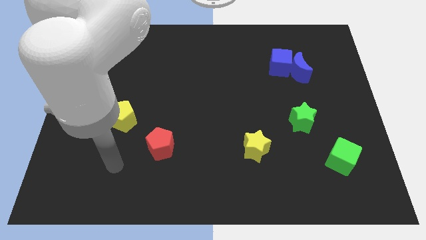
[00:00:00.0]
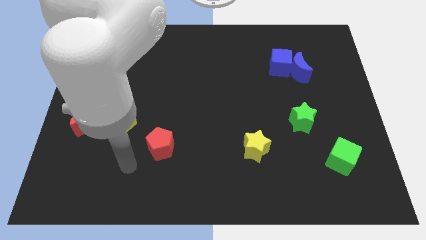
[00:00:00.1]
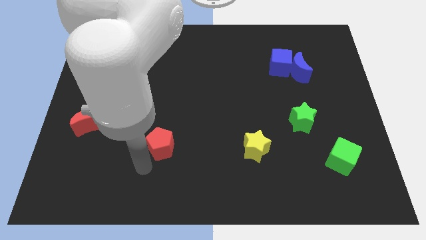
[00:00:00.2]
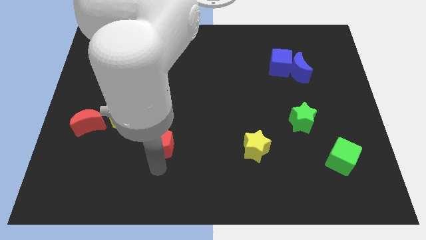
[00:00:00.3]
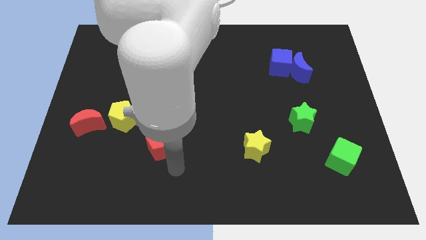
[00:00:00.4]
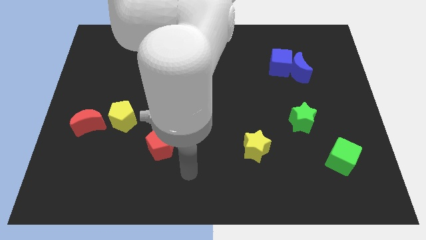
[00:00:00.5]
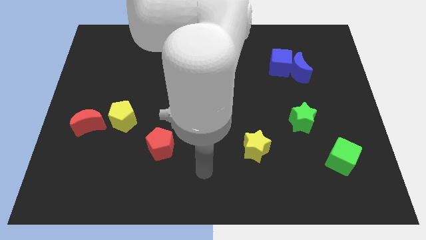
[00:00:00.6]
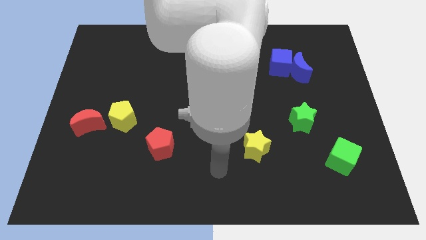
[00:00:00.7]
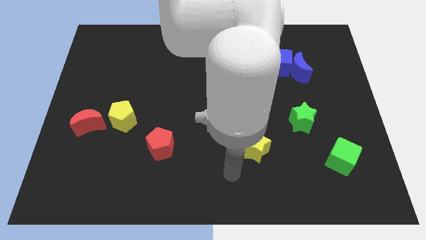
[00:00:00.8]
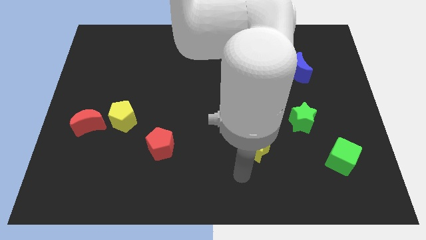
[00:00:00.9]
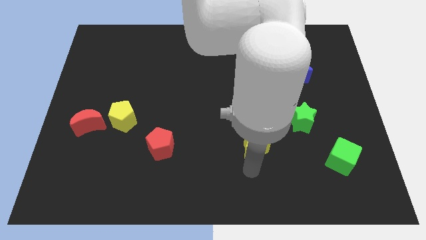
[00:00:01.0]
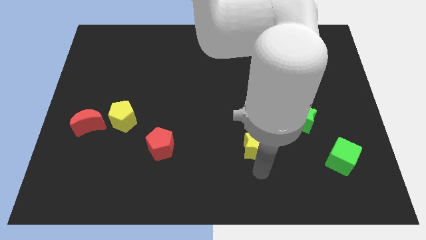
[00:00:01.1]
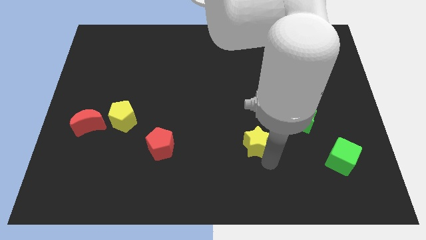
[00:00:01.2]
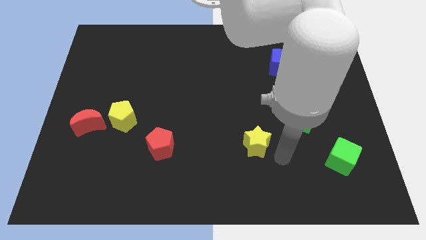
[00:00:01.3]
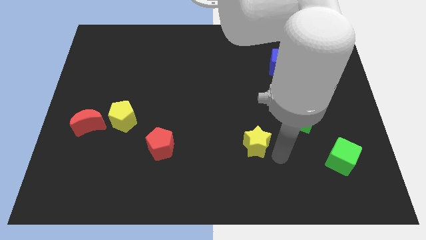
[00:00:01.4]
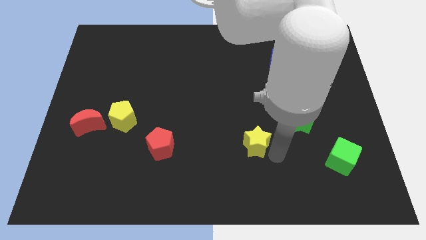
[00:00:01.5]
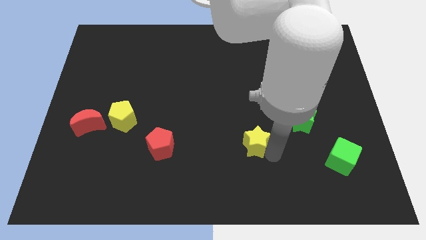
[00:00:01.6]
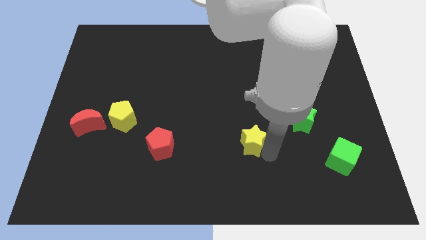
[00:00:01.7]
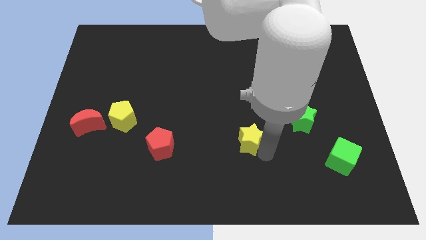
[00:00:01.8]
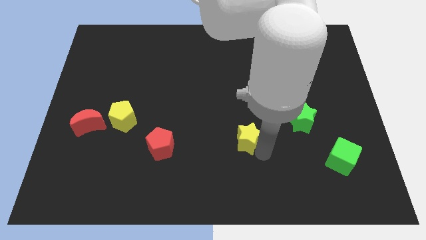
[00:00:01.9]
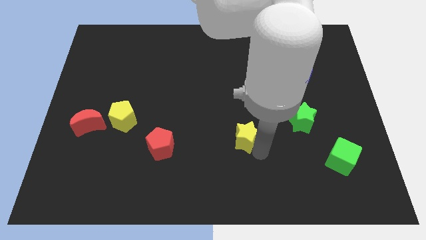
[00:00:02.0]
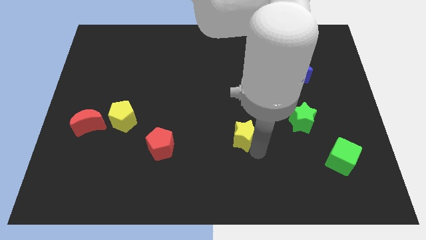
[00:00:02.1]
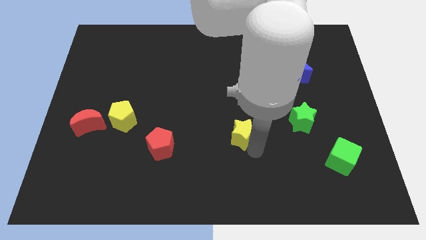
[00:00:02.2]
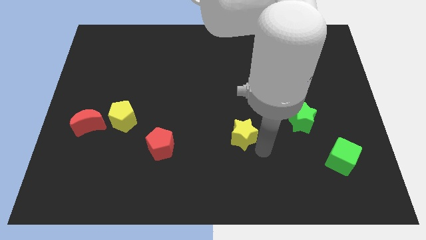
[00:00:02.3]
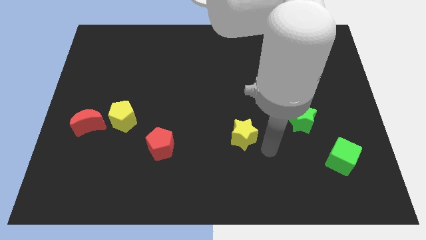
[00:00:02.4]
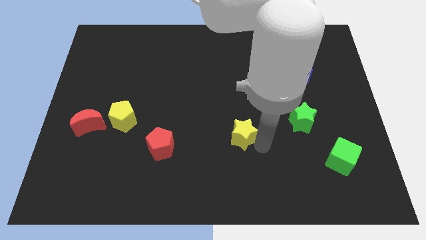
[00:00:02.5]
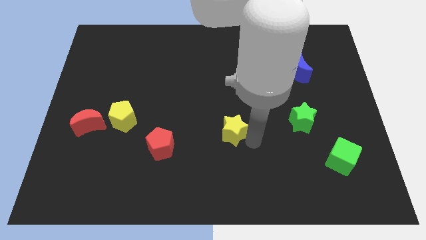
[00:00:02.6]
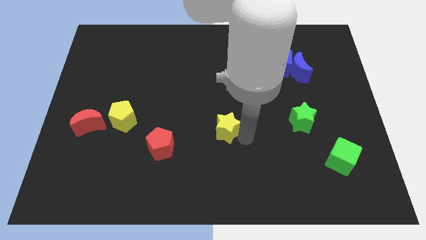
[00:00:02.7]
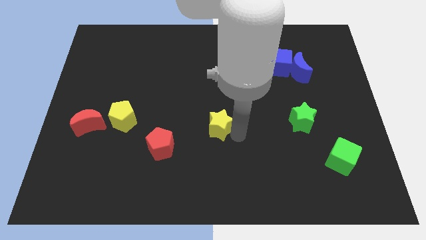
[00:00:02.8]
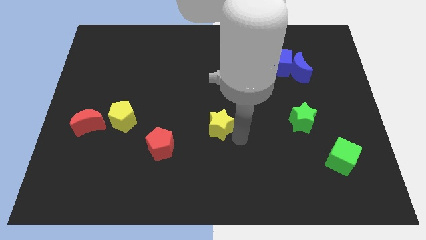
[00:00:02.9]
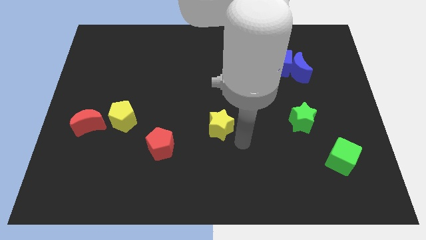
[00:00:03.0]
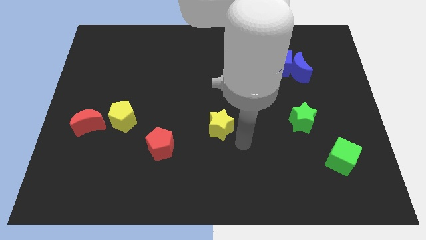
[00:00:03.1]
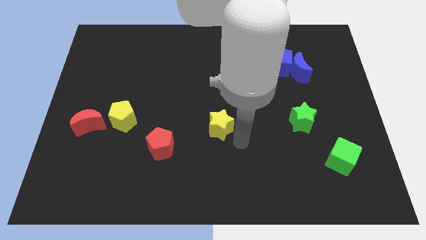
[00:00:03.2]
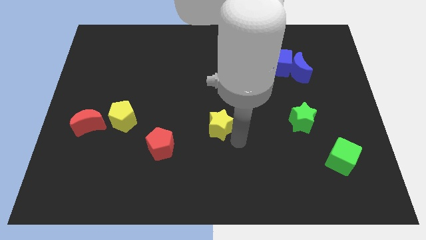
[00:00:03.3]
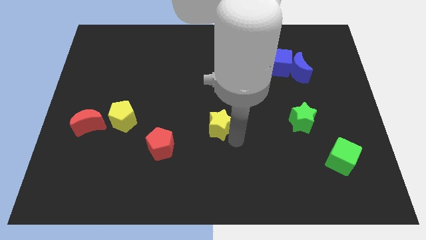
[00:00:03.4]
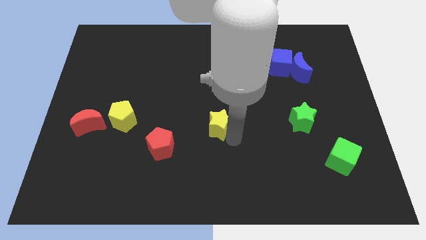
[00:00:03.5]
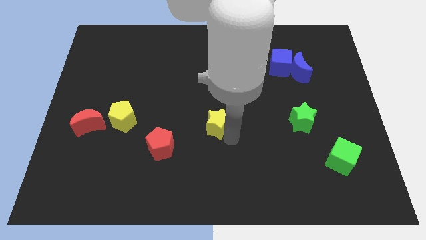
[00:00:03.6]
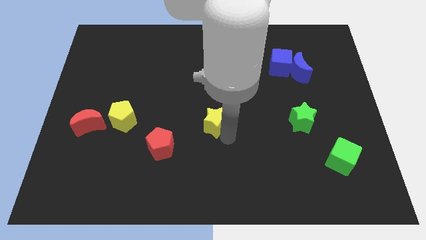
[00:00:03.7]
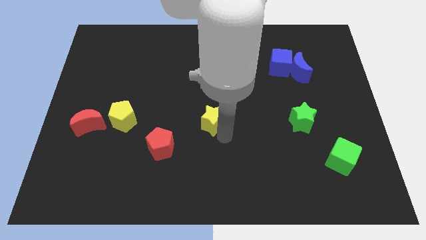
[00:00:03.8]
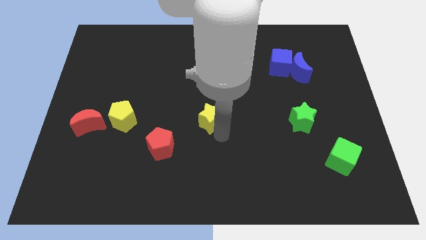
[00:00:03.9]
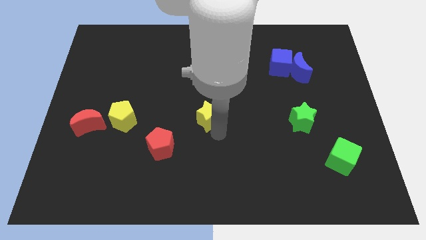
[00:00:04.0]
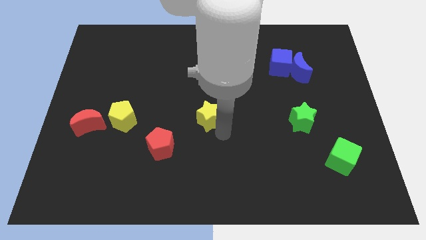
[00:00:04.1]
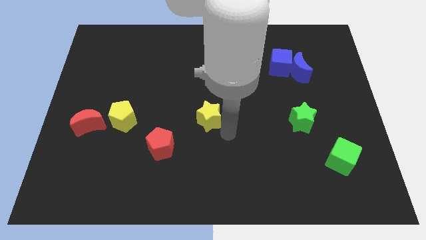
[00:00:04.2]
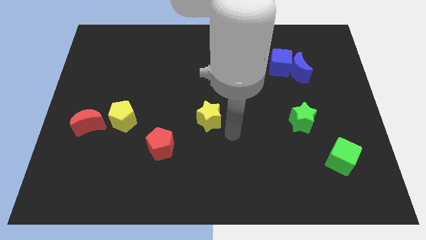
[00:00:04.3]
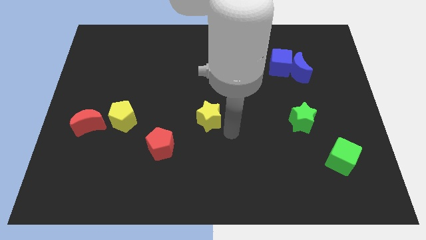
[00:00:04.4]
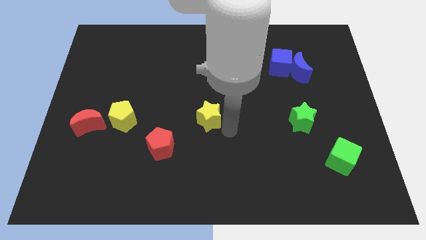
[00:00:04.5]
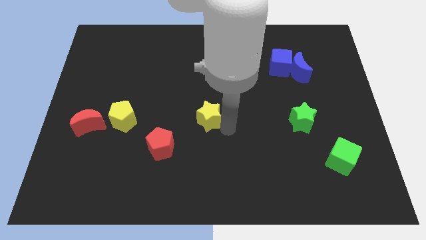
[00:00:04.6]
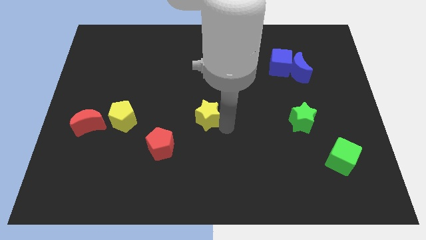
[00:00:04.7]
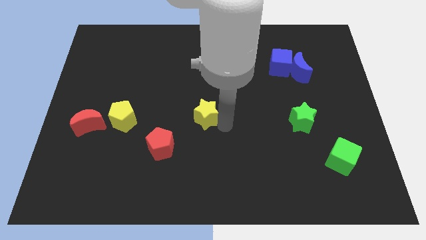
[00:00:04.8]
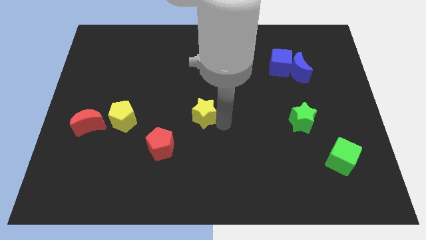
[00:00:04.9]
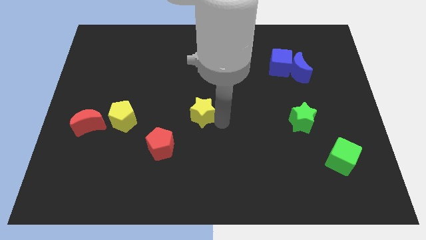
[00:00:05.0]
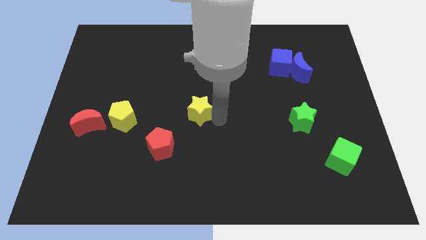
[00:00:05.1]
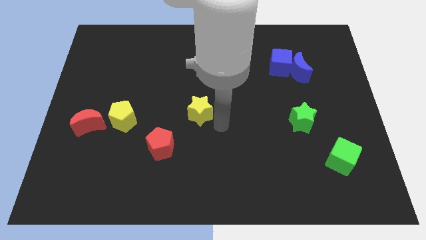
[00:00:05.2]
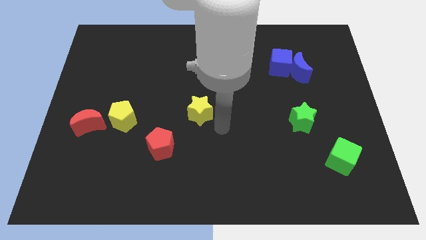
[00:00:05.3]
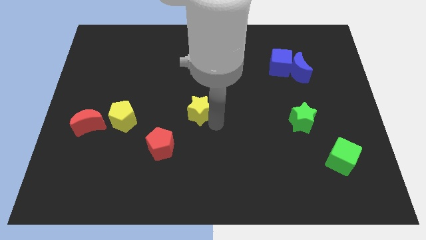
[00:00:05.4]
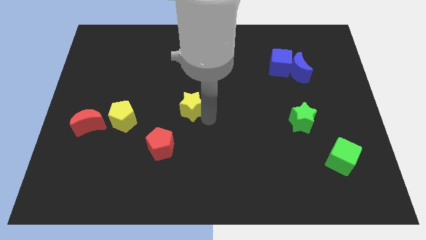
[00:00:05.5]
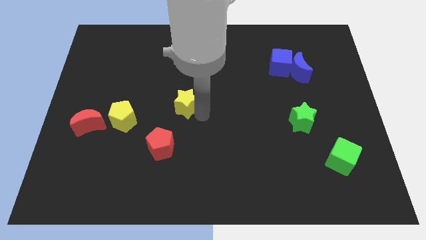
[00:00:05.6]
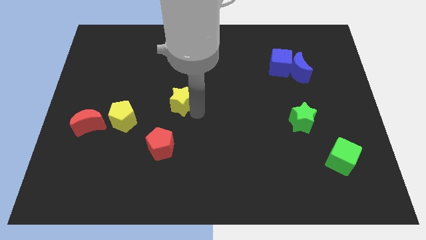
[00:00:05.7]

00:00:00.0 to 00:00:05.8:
slide the yellow star up and left diagonally

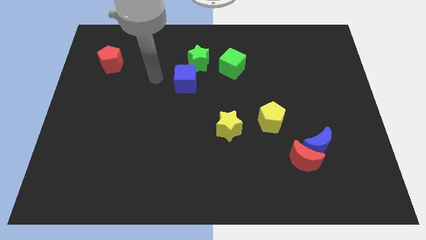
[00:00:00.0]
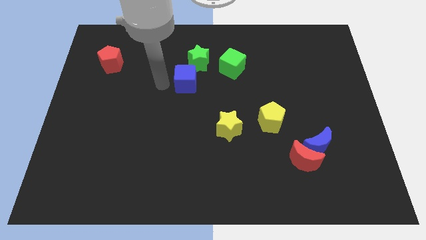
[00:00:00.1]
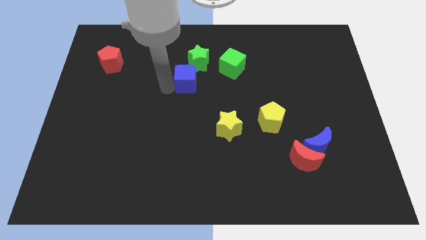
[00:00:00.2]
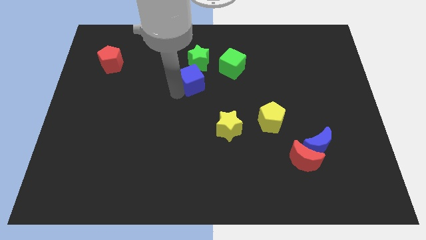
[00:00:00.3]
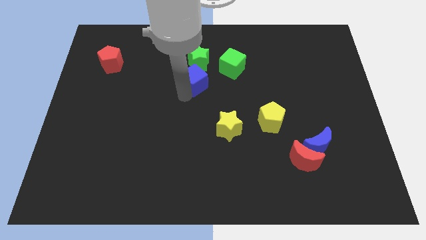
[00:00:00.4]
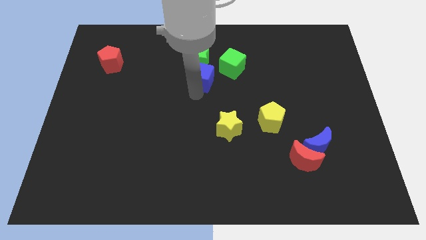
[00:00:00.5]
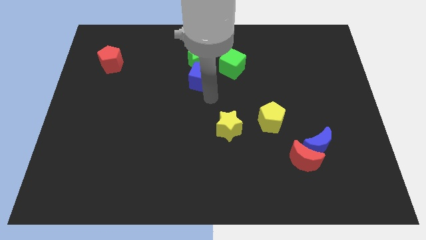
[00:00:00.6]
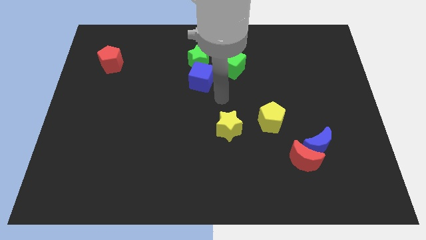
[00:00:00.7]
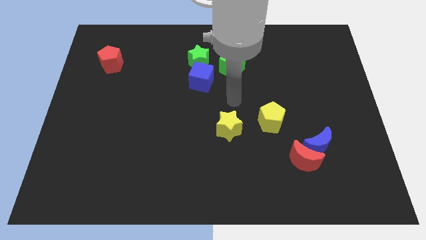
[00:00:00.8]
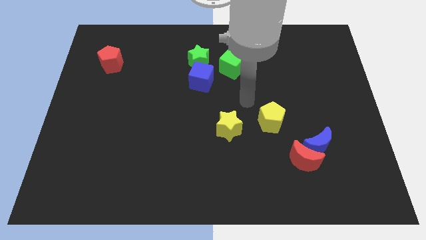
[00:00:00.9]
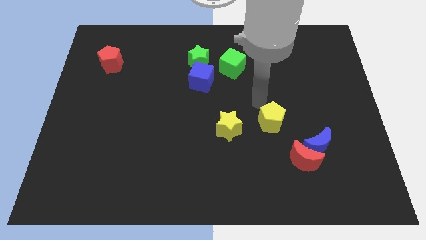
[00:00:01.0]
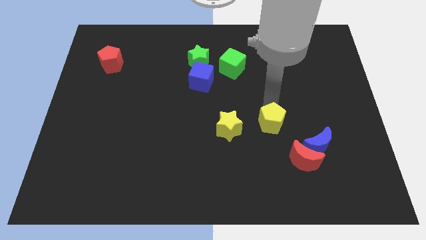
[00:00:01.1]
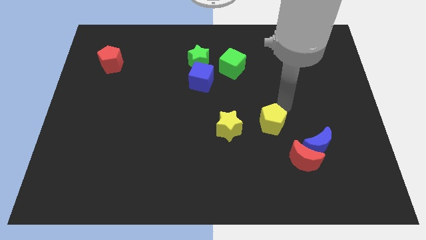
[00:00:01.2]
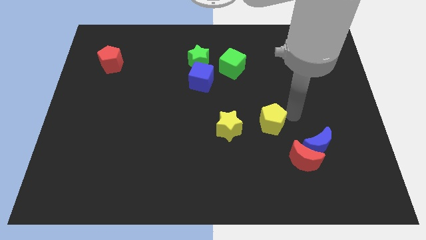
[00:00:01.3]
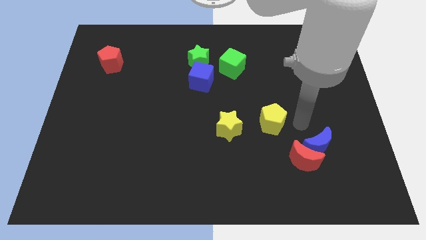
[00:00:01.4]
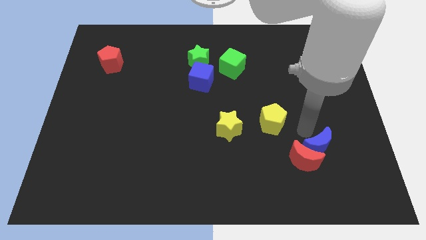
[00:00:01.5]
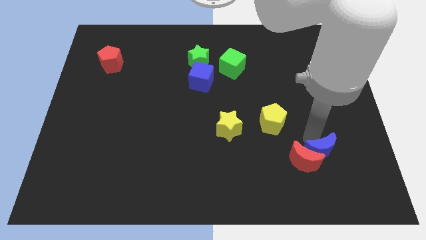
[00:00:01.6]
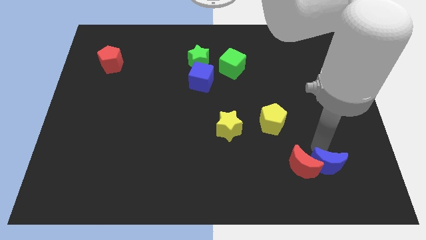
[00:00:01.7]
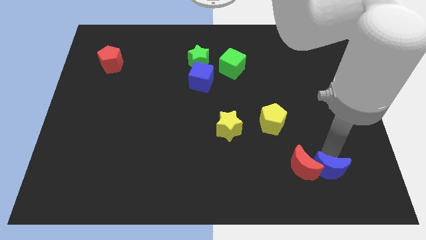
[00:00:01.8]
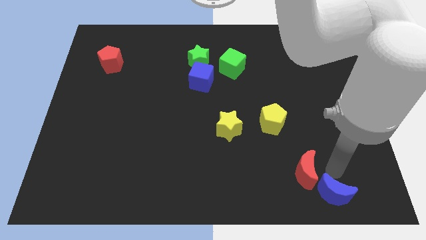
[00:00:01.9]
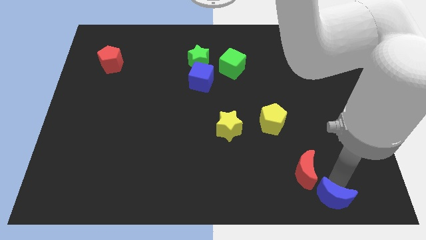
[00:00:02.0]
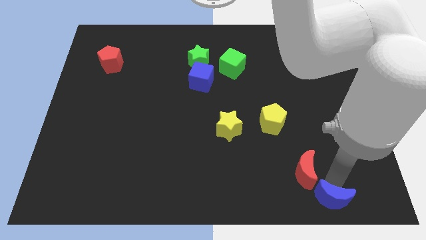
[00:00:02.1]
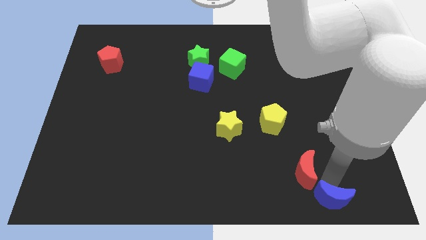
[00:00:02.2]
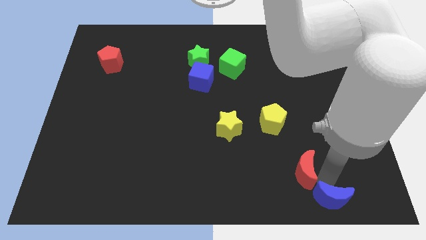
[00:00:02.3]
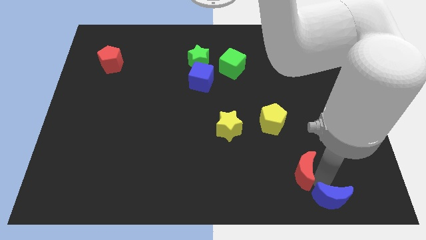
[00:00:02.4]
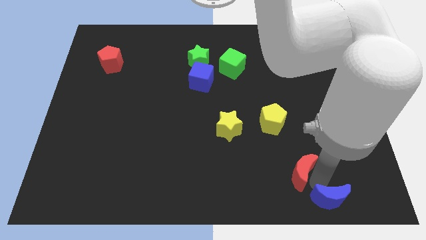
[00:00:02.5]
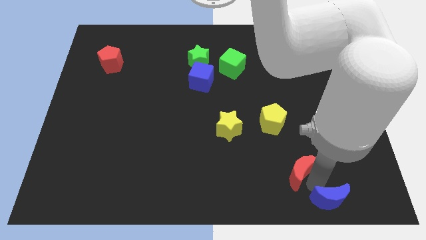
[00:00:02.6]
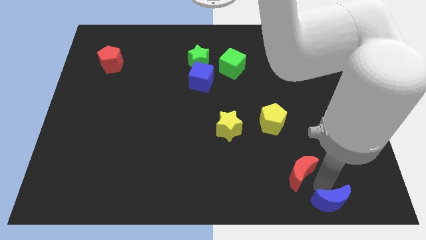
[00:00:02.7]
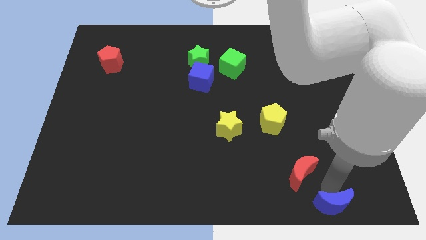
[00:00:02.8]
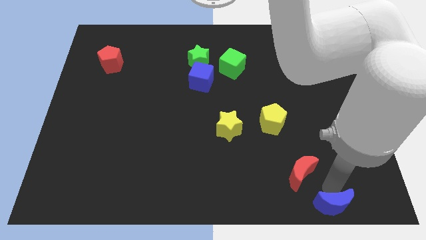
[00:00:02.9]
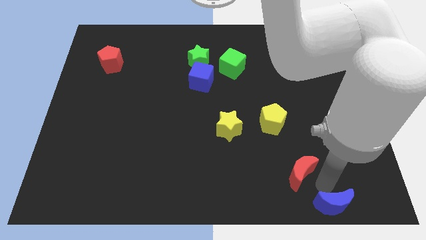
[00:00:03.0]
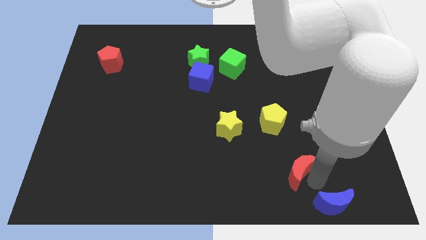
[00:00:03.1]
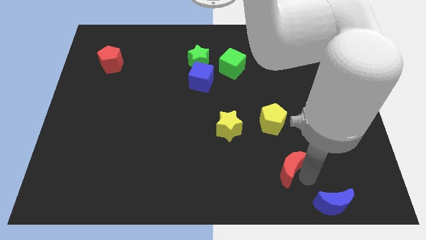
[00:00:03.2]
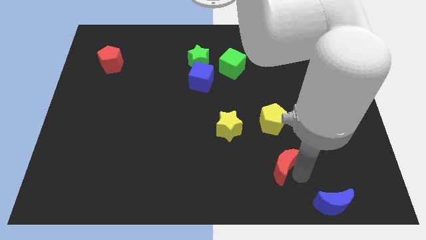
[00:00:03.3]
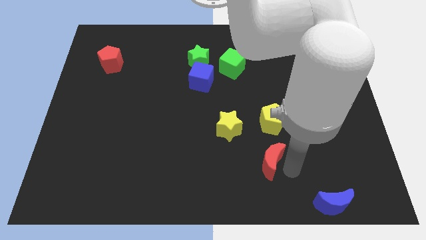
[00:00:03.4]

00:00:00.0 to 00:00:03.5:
push the red moon slightly left
